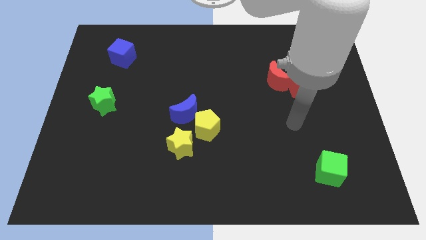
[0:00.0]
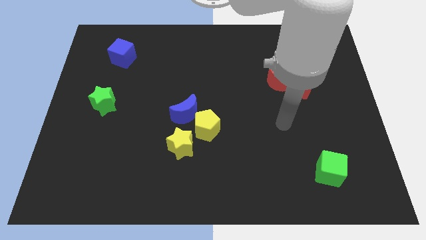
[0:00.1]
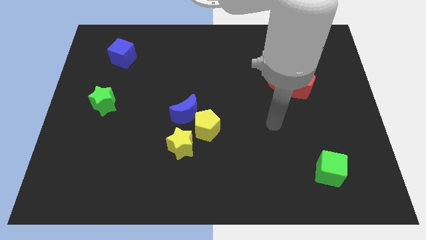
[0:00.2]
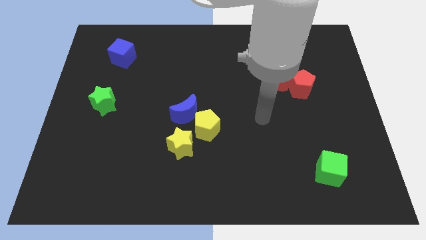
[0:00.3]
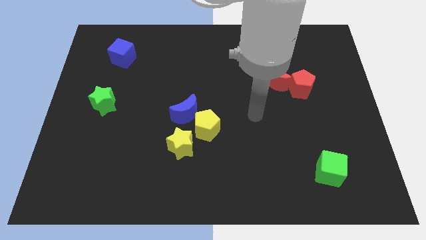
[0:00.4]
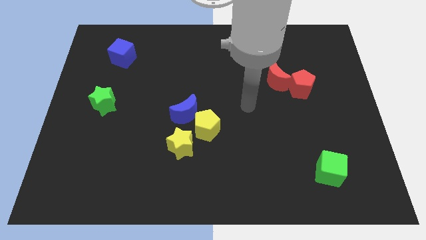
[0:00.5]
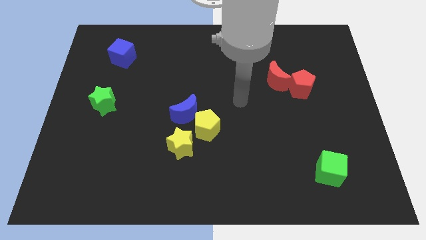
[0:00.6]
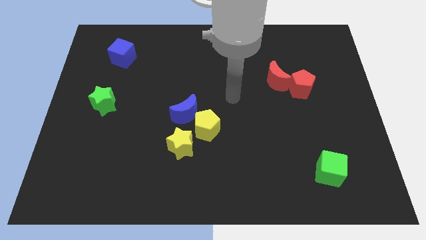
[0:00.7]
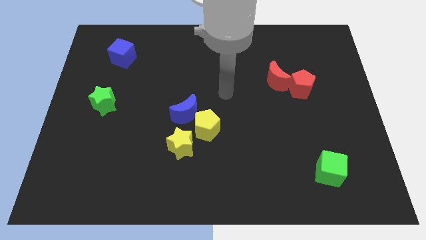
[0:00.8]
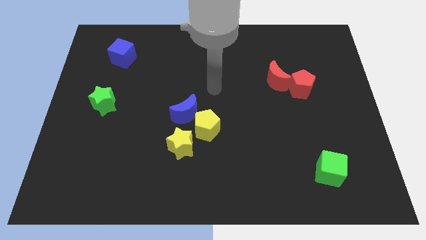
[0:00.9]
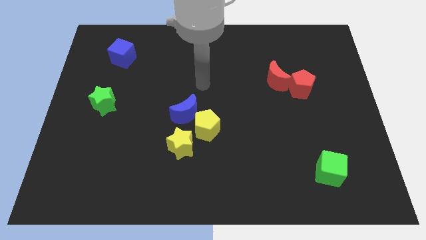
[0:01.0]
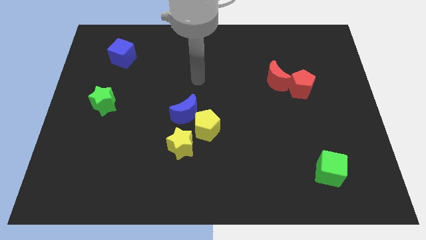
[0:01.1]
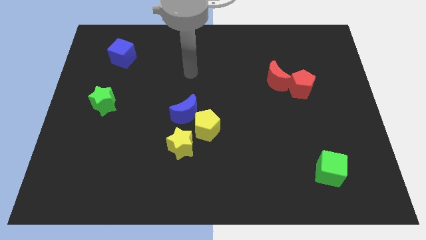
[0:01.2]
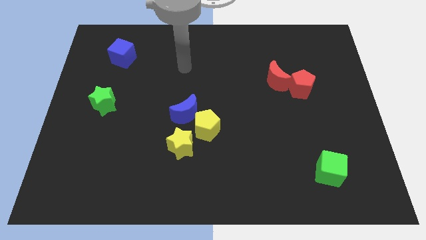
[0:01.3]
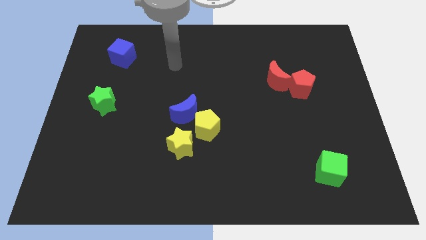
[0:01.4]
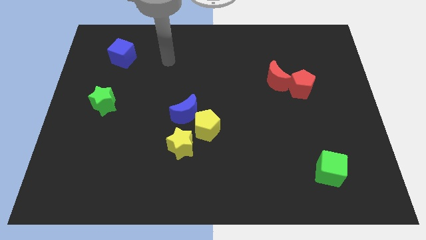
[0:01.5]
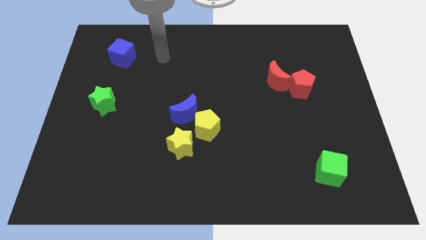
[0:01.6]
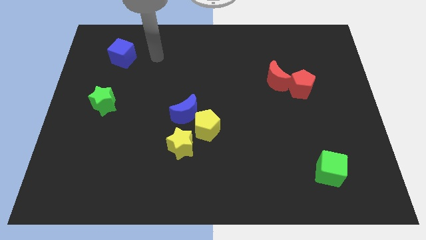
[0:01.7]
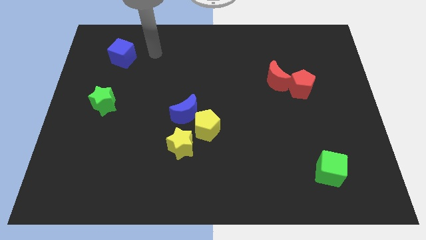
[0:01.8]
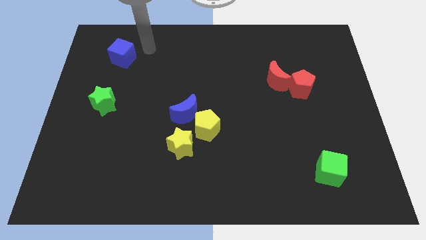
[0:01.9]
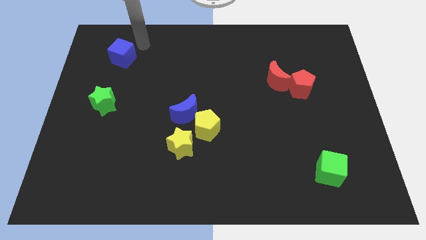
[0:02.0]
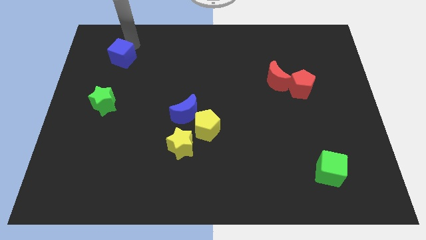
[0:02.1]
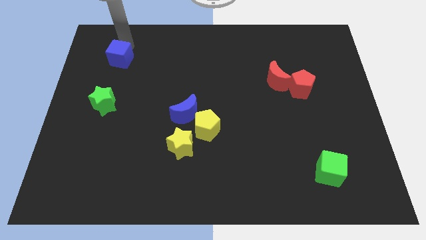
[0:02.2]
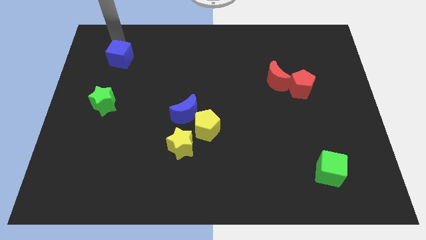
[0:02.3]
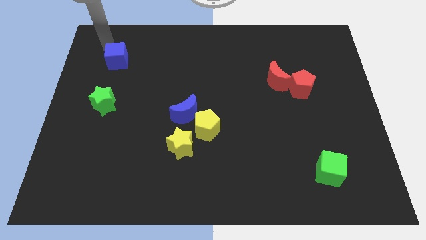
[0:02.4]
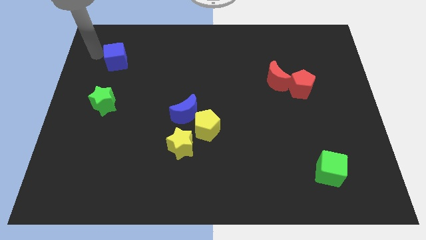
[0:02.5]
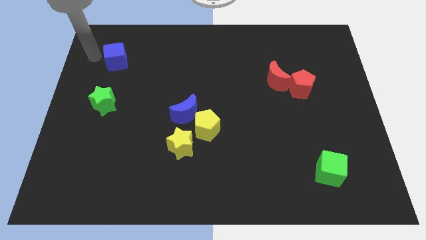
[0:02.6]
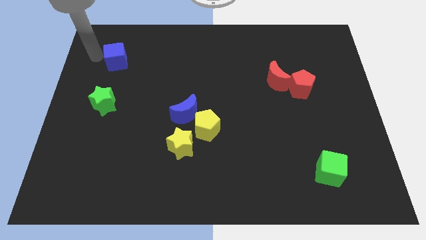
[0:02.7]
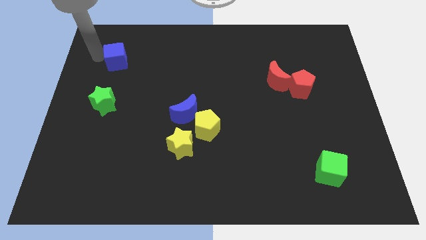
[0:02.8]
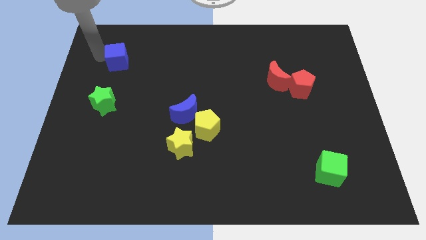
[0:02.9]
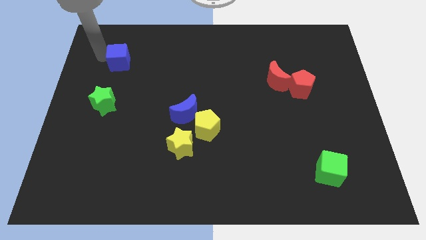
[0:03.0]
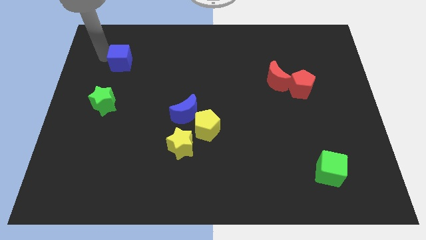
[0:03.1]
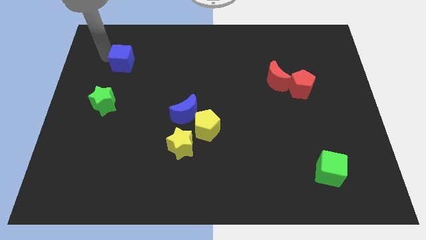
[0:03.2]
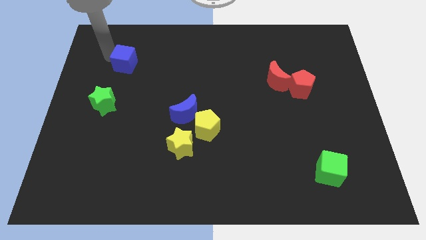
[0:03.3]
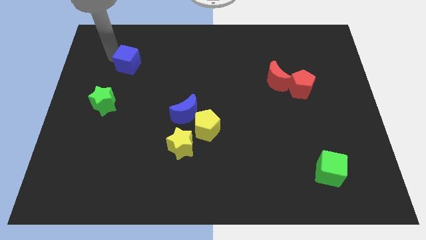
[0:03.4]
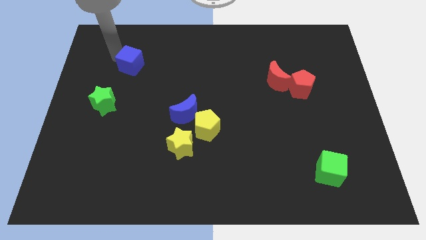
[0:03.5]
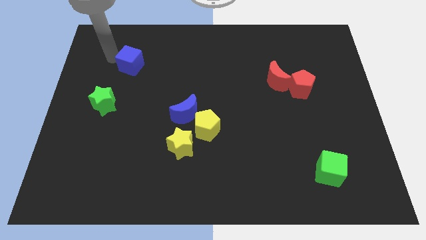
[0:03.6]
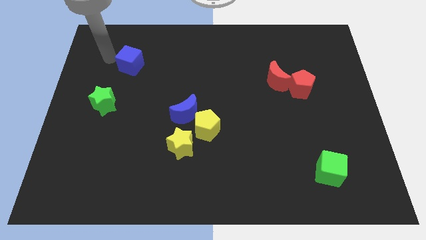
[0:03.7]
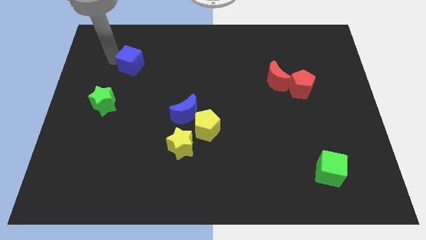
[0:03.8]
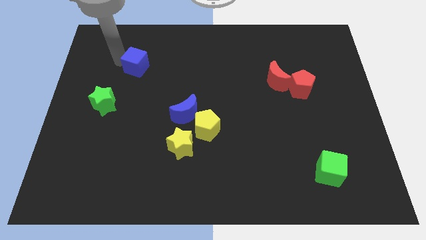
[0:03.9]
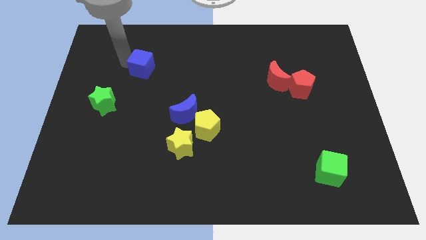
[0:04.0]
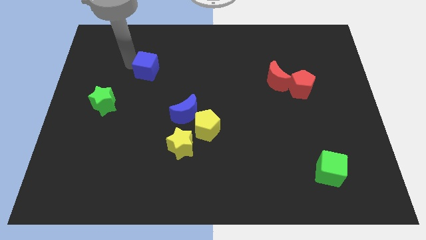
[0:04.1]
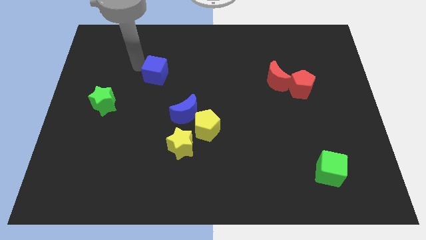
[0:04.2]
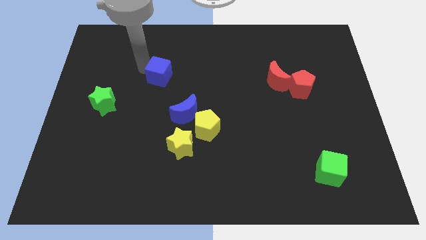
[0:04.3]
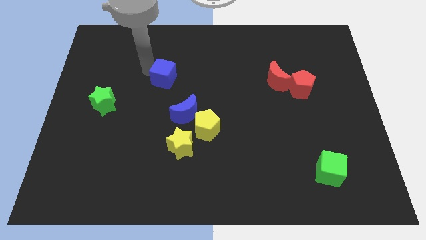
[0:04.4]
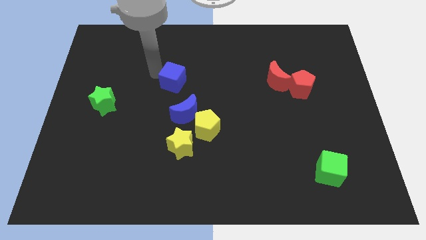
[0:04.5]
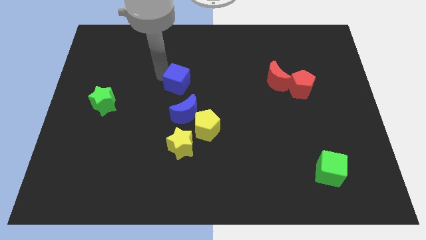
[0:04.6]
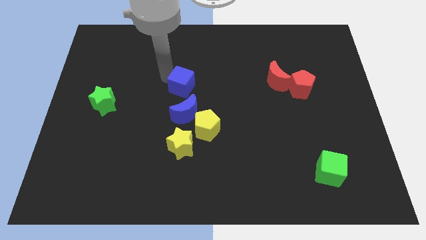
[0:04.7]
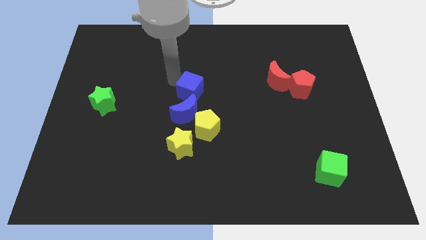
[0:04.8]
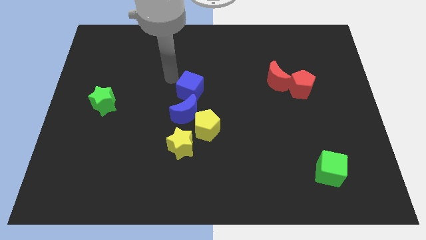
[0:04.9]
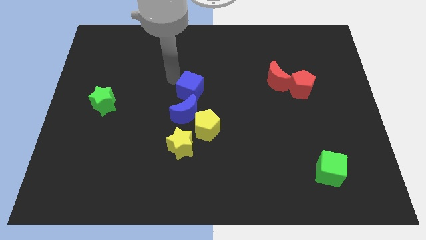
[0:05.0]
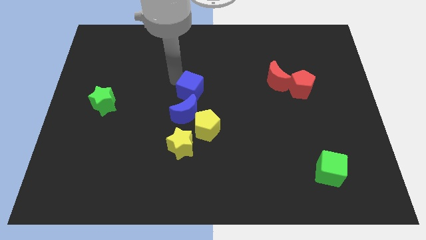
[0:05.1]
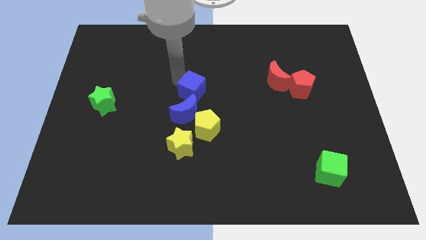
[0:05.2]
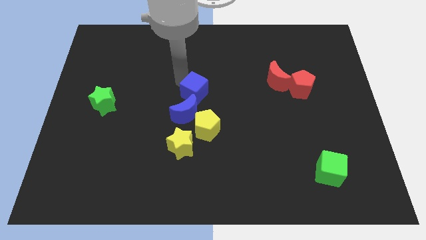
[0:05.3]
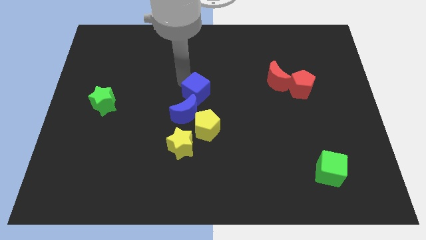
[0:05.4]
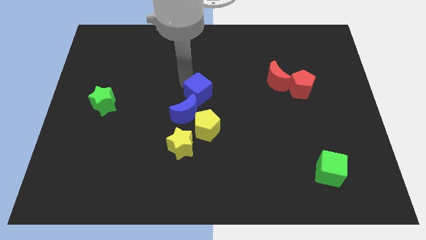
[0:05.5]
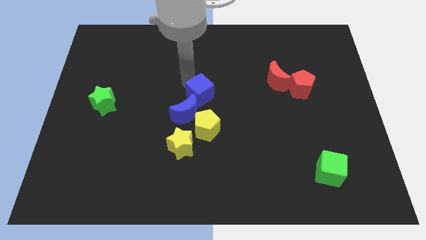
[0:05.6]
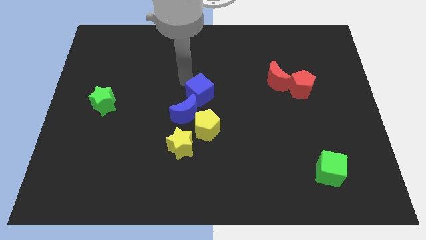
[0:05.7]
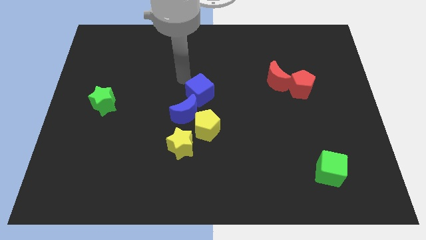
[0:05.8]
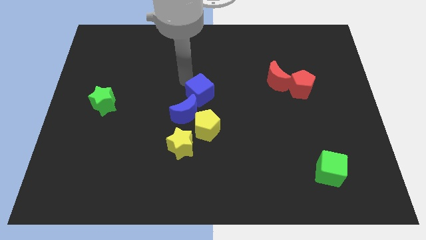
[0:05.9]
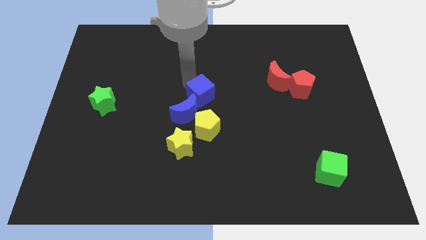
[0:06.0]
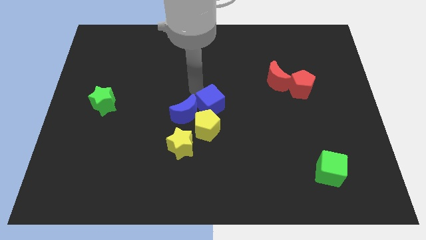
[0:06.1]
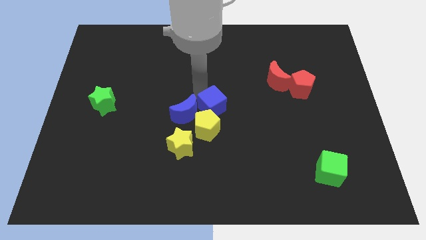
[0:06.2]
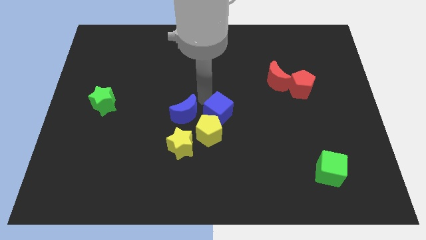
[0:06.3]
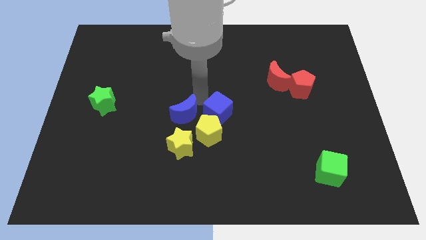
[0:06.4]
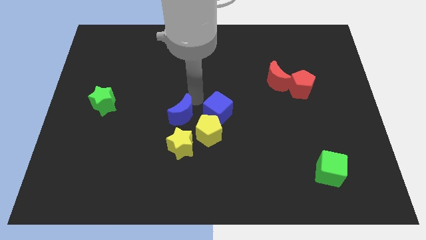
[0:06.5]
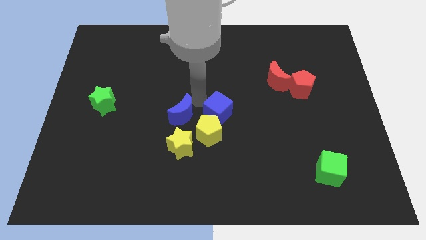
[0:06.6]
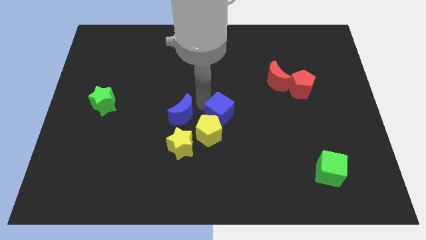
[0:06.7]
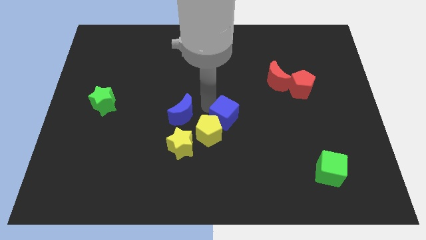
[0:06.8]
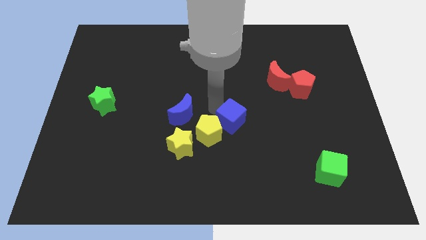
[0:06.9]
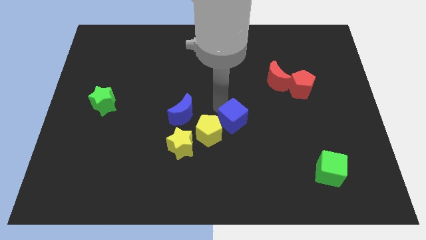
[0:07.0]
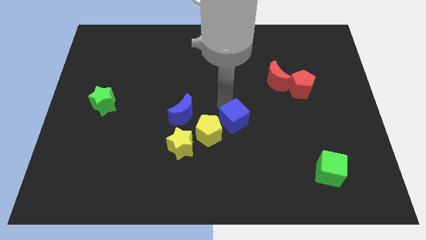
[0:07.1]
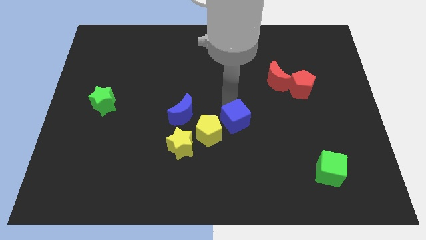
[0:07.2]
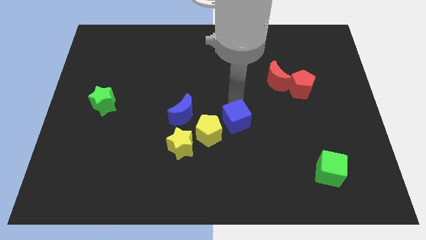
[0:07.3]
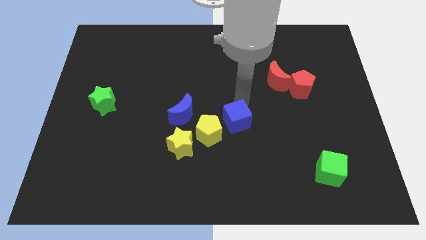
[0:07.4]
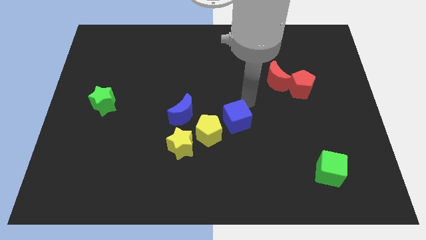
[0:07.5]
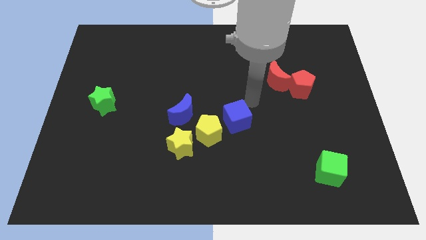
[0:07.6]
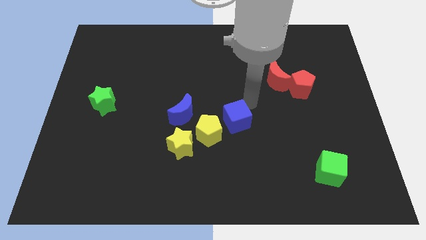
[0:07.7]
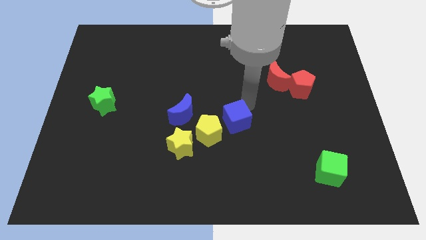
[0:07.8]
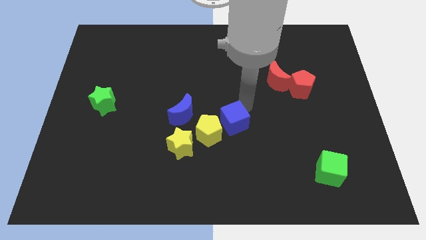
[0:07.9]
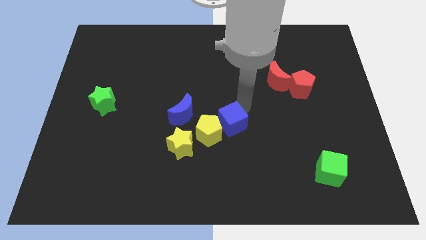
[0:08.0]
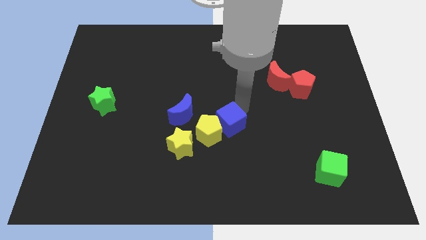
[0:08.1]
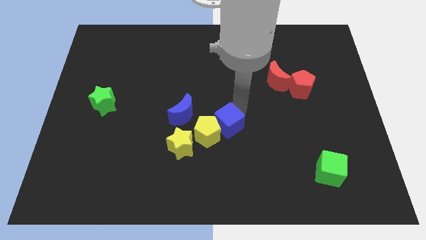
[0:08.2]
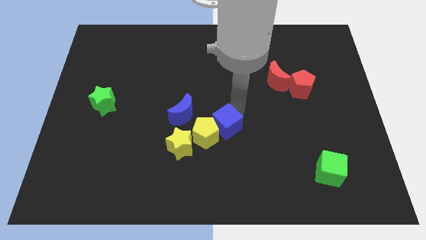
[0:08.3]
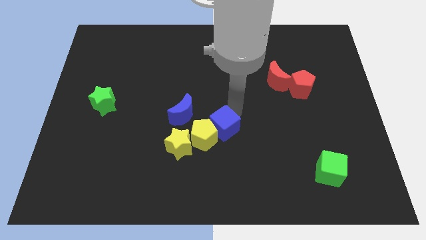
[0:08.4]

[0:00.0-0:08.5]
slide the blue cube to the bottom right of the blue moon
